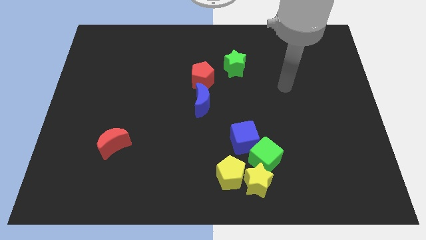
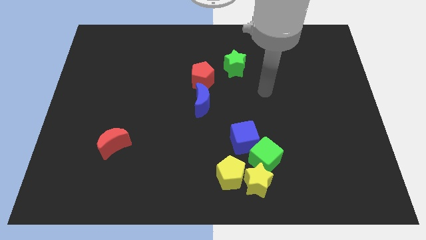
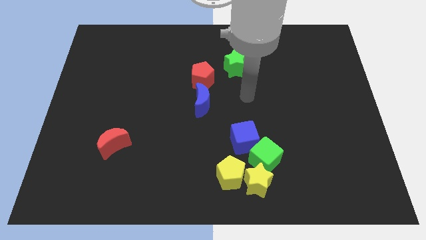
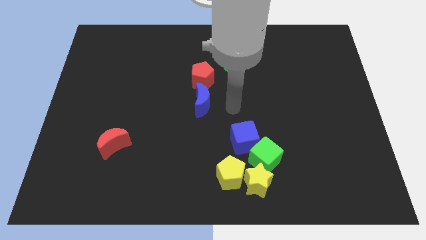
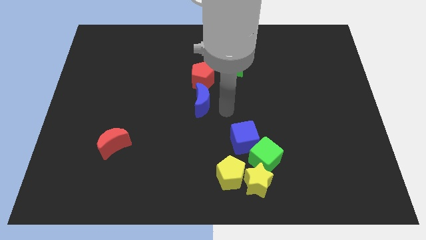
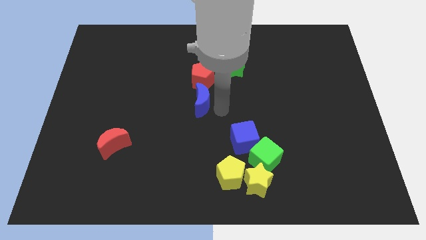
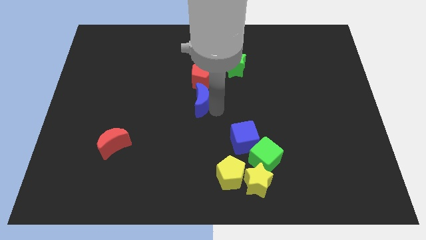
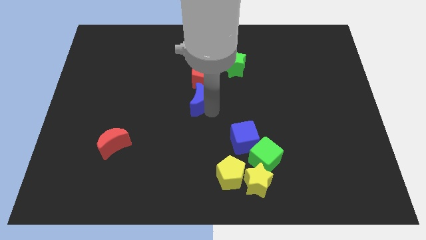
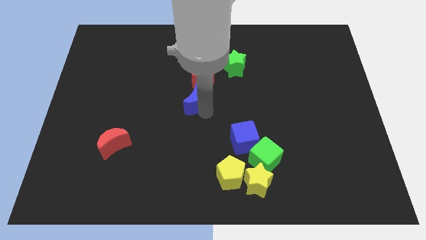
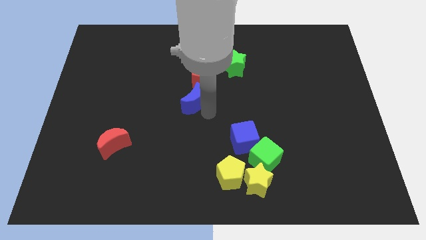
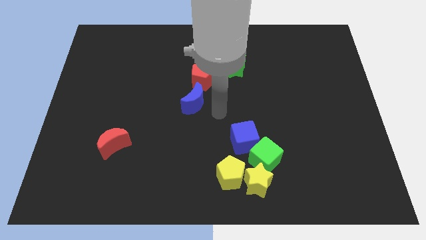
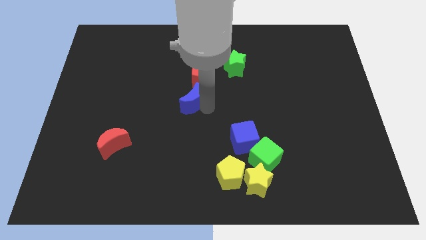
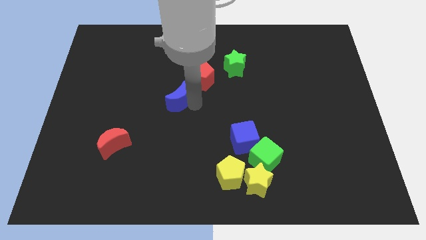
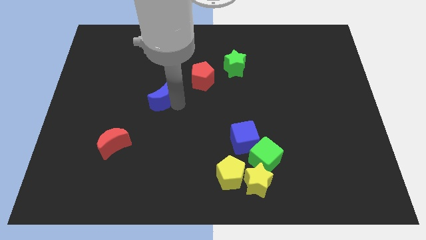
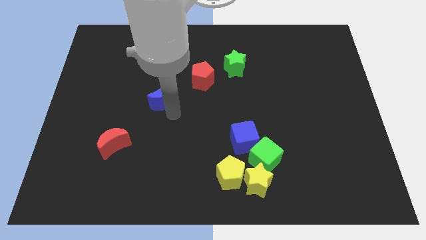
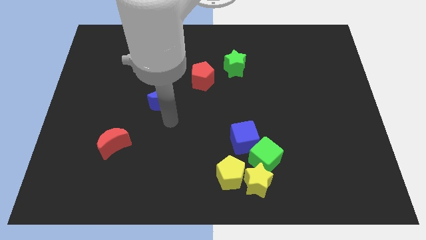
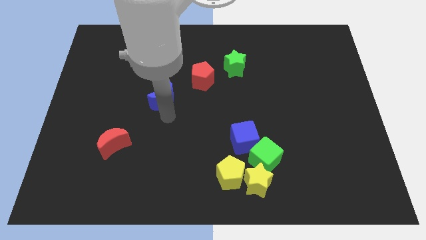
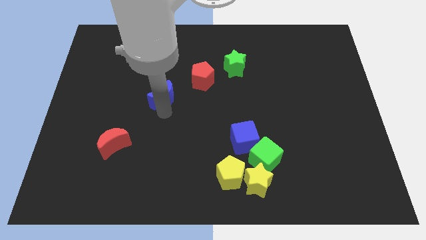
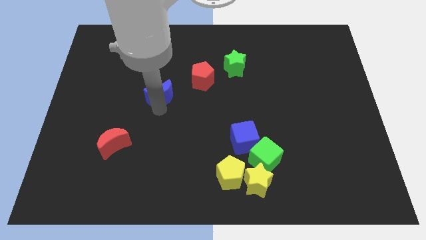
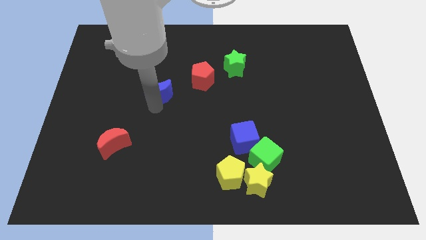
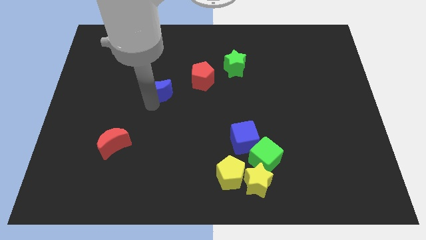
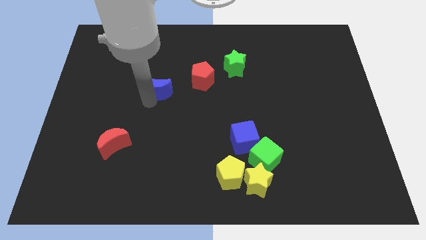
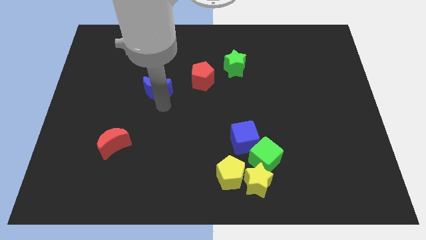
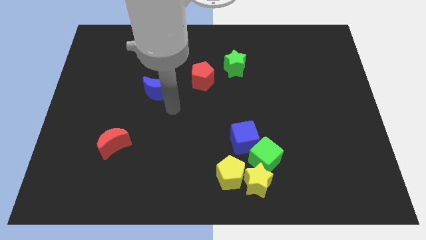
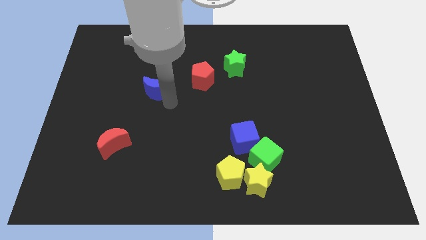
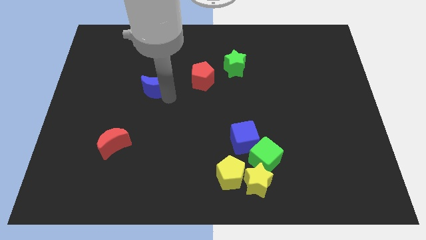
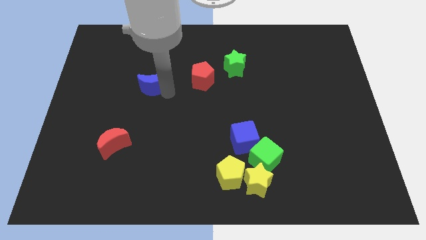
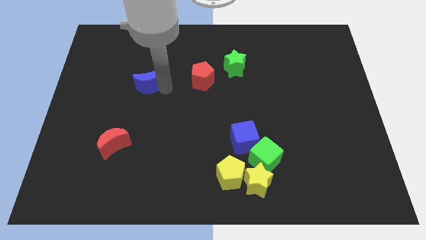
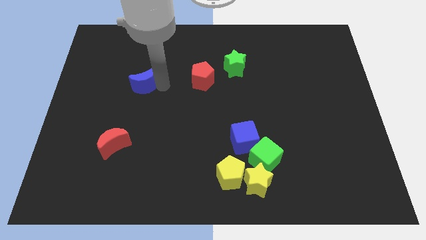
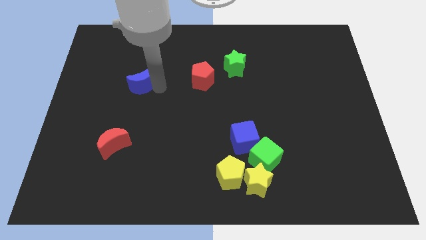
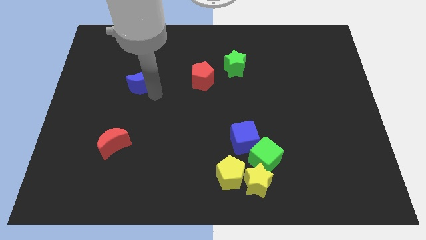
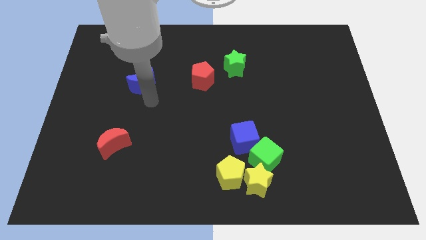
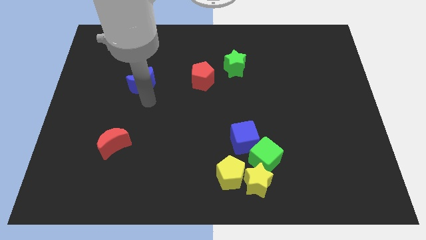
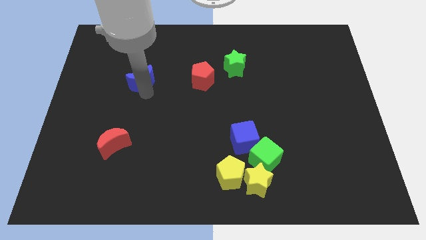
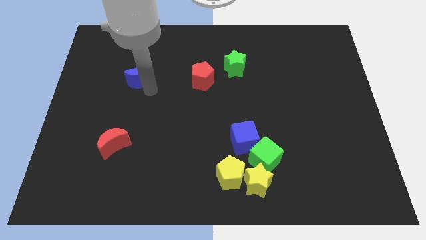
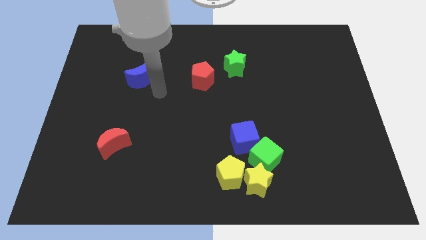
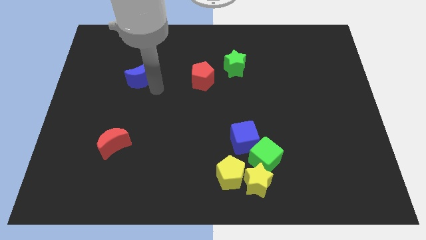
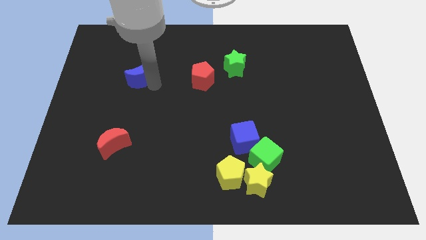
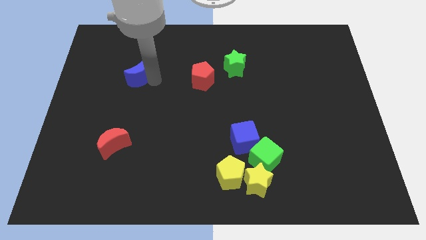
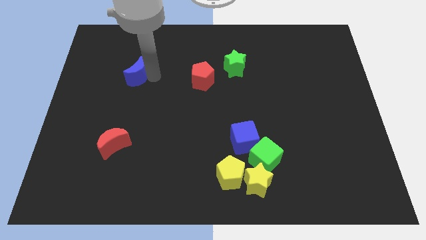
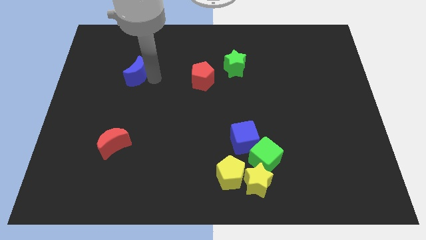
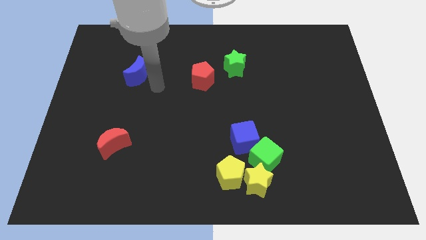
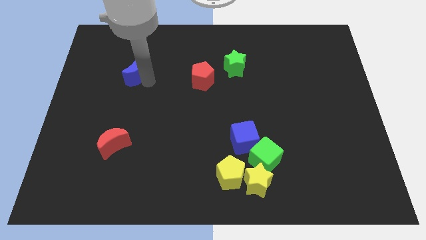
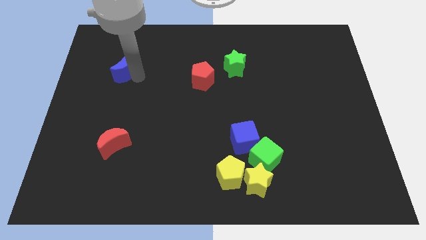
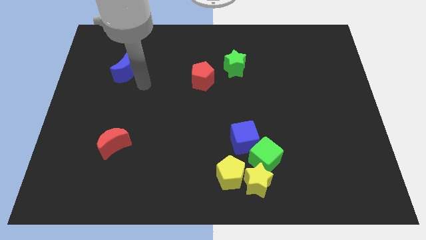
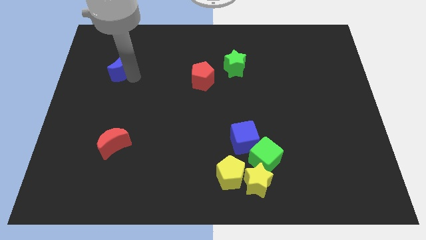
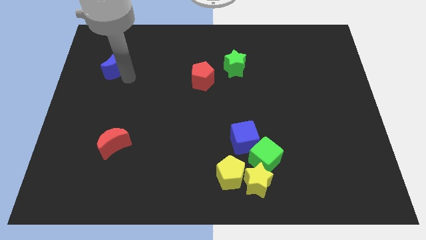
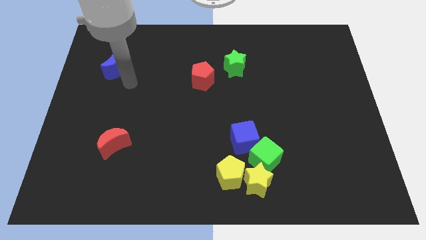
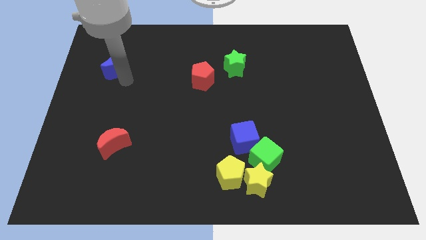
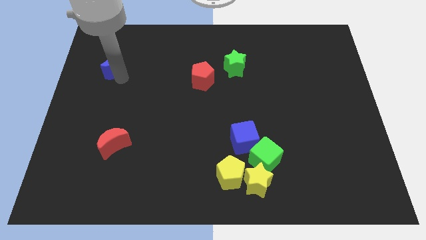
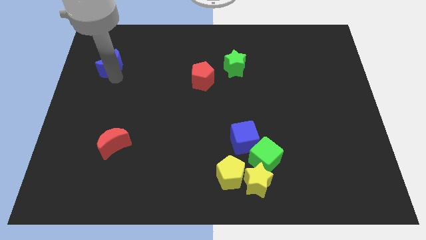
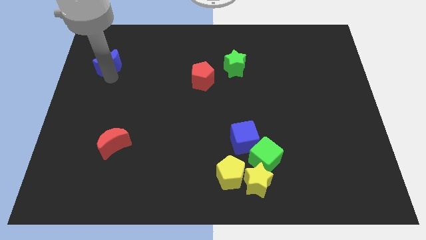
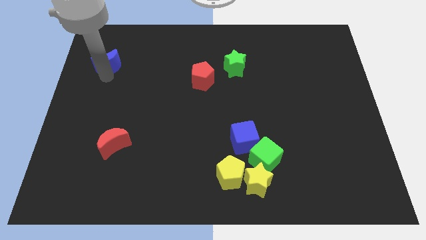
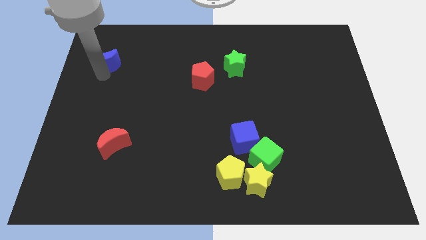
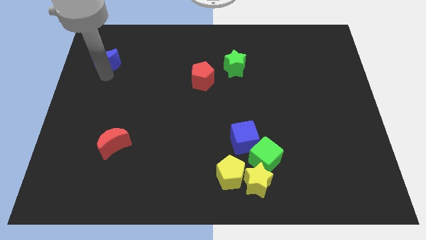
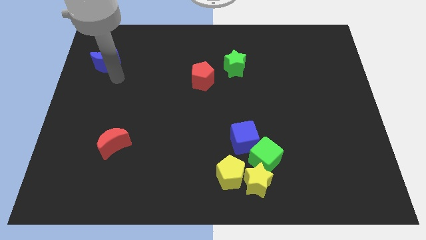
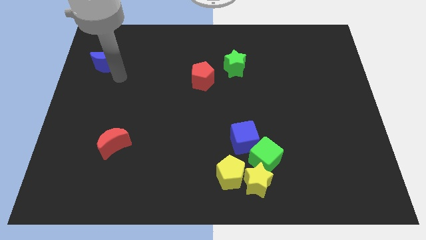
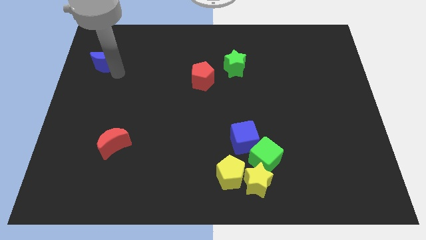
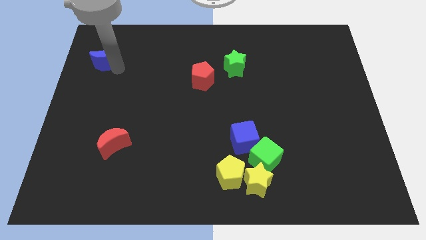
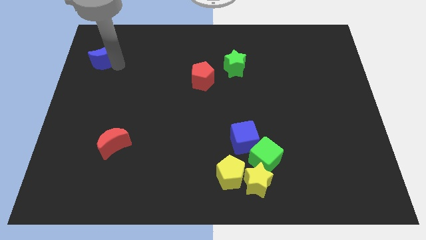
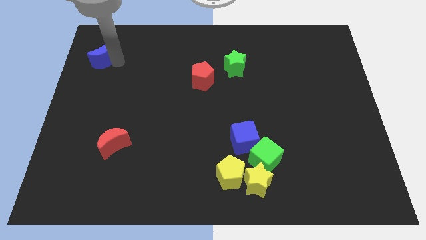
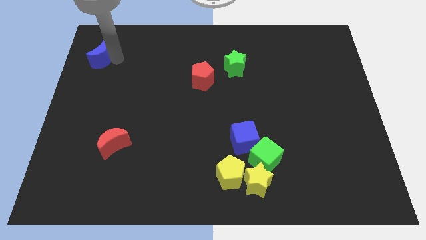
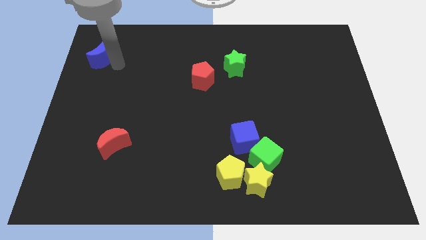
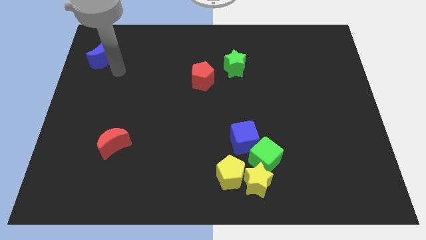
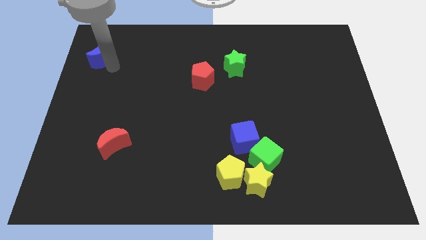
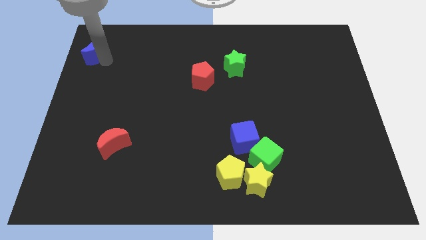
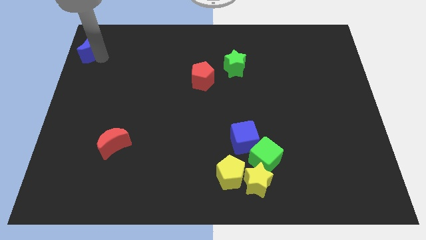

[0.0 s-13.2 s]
push the blue moon to the upper left corner
